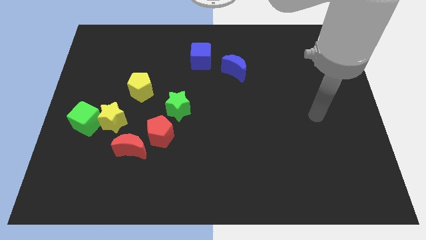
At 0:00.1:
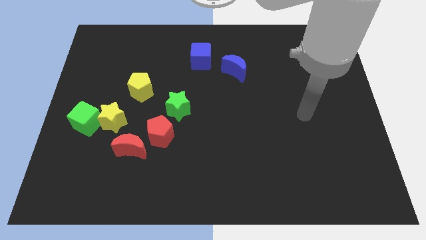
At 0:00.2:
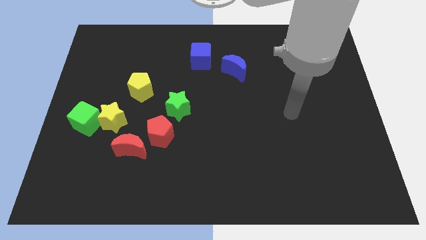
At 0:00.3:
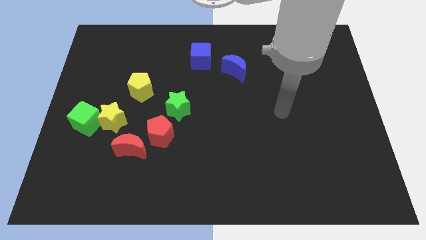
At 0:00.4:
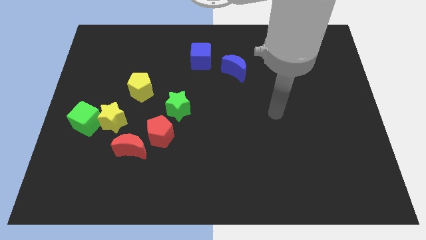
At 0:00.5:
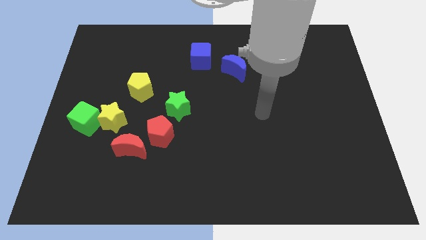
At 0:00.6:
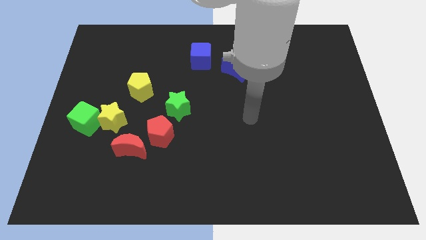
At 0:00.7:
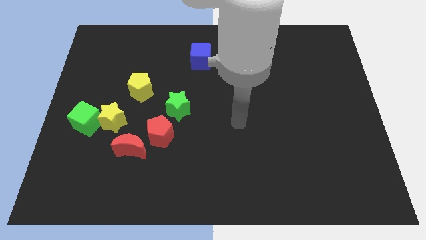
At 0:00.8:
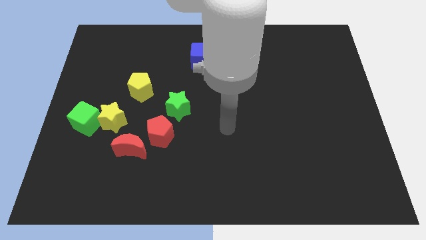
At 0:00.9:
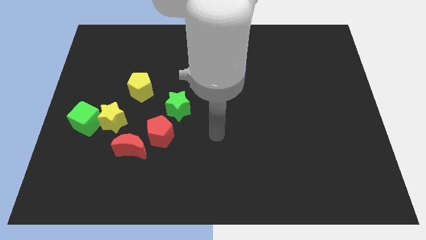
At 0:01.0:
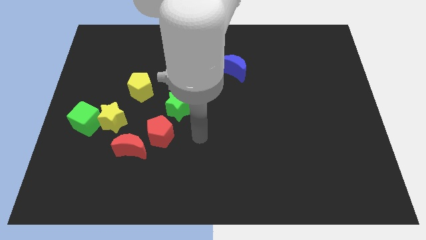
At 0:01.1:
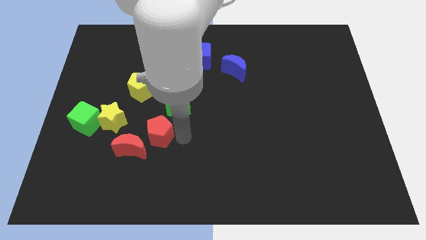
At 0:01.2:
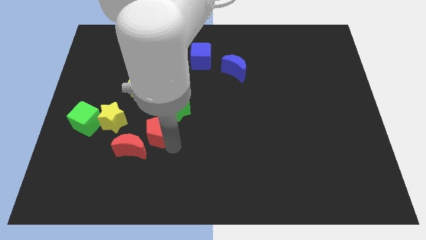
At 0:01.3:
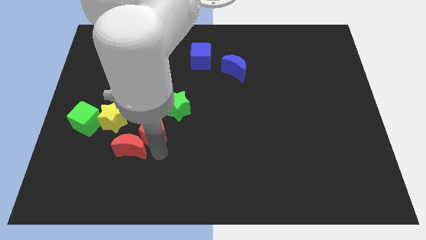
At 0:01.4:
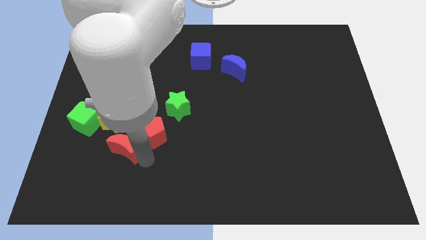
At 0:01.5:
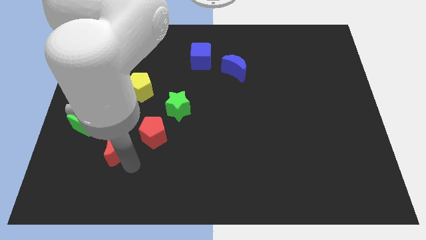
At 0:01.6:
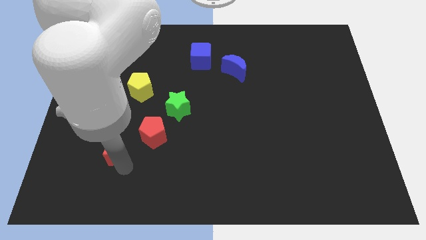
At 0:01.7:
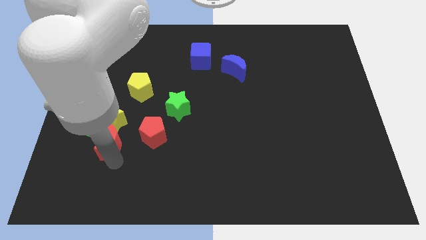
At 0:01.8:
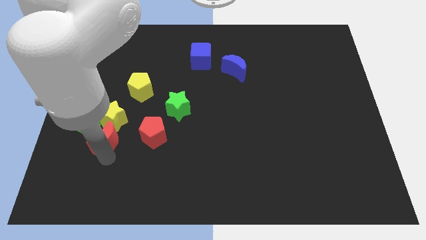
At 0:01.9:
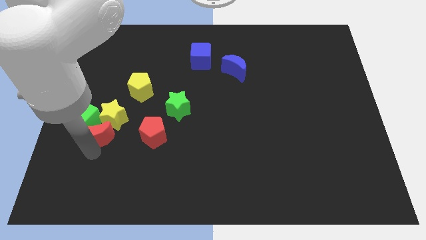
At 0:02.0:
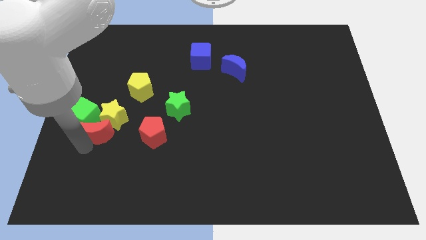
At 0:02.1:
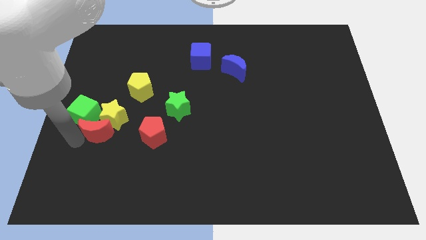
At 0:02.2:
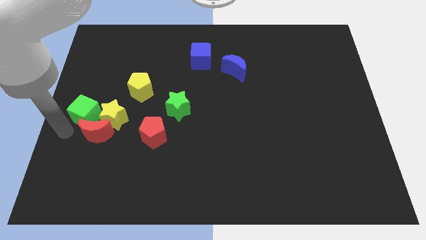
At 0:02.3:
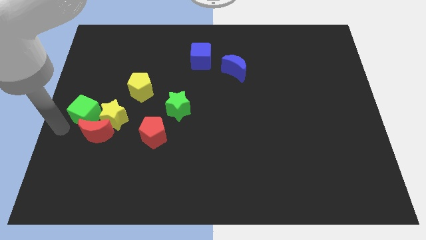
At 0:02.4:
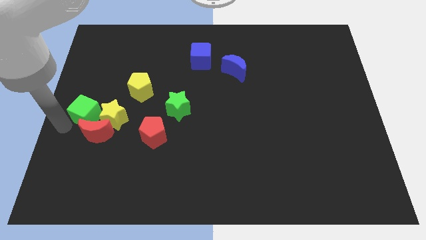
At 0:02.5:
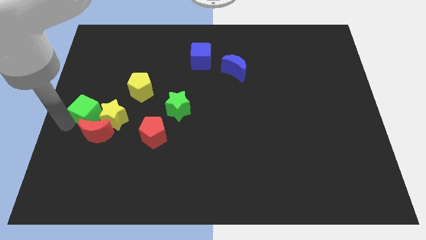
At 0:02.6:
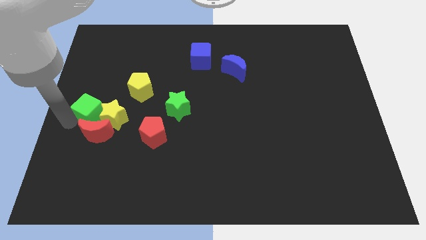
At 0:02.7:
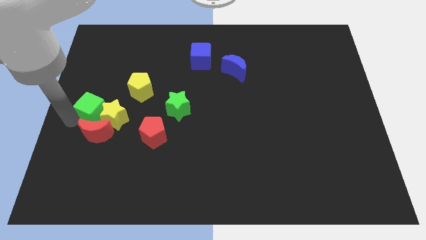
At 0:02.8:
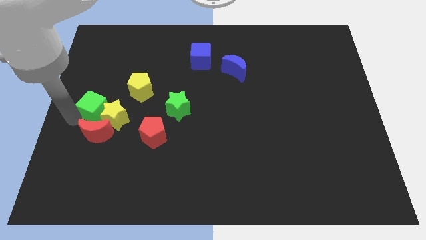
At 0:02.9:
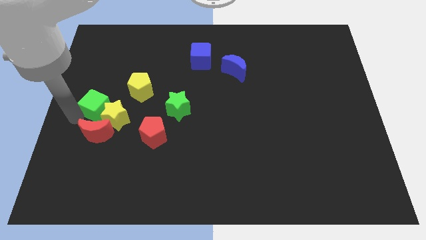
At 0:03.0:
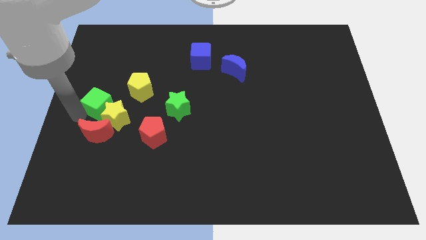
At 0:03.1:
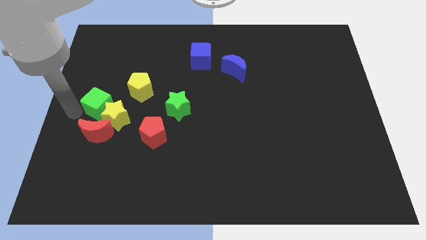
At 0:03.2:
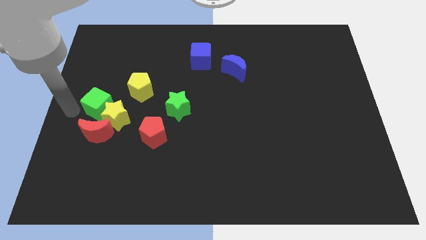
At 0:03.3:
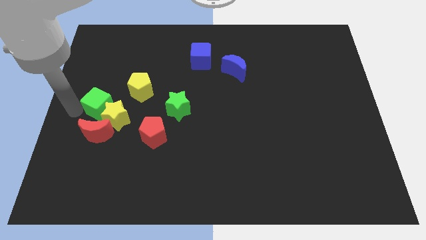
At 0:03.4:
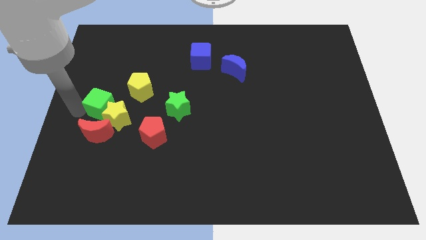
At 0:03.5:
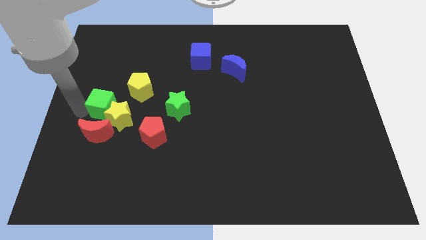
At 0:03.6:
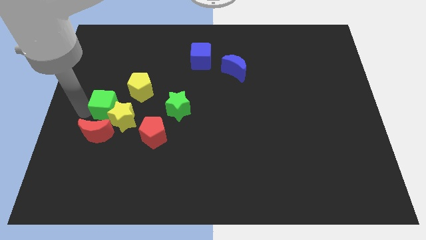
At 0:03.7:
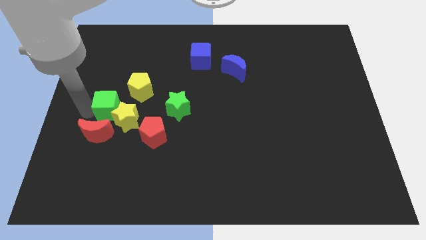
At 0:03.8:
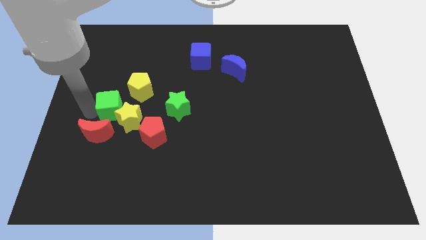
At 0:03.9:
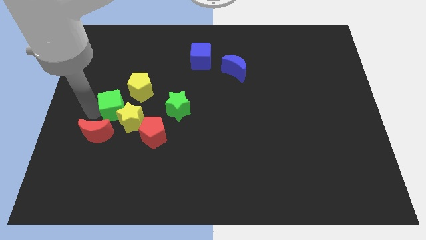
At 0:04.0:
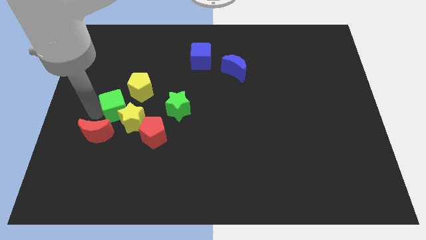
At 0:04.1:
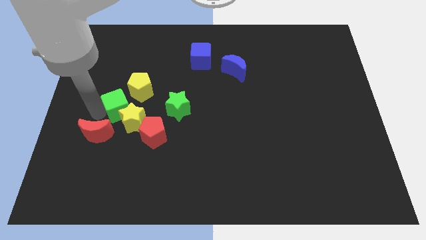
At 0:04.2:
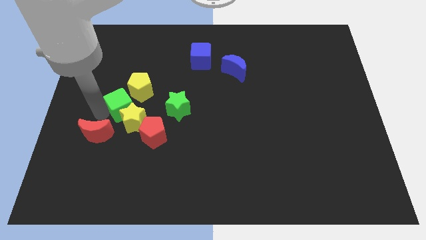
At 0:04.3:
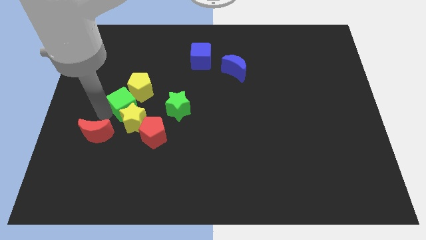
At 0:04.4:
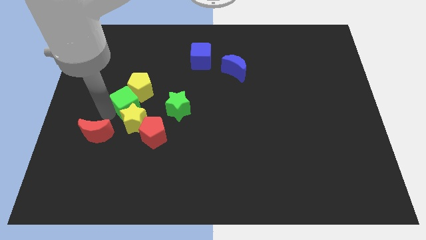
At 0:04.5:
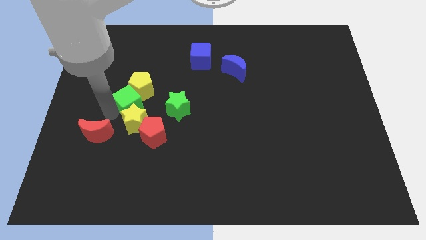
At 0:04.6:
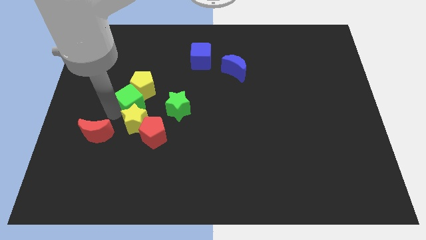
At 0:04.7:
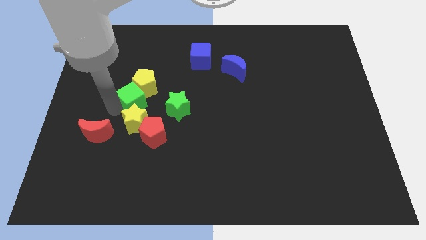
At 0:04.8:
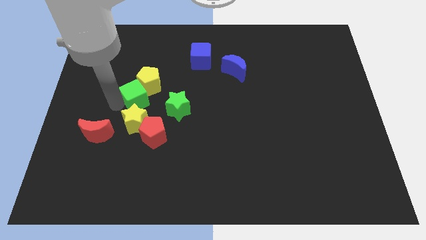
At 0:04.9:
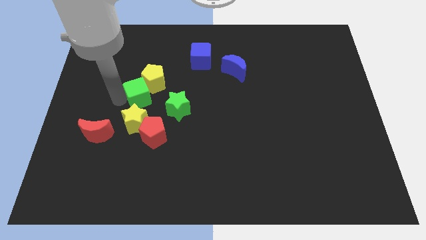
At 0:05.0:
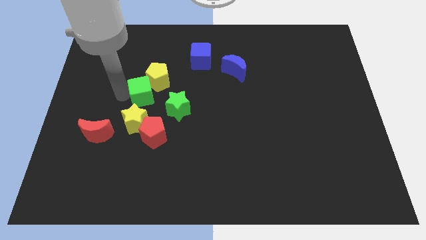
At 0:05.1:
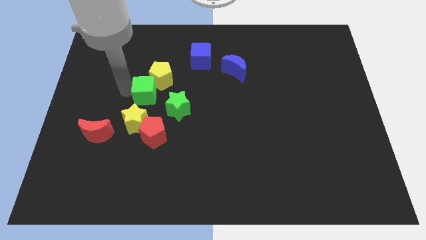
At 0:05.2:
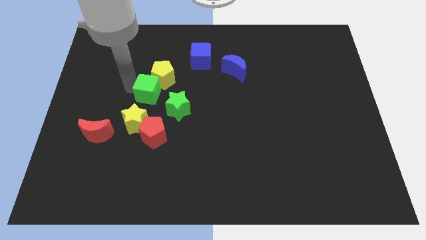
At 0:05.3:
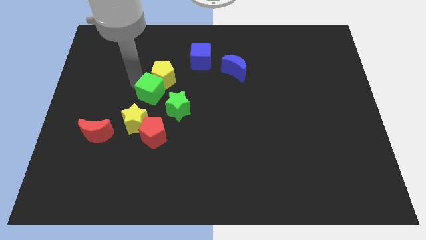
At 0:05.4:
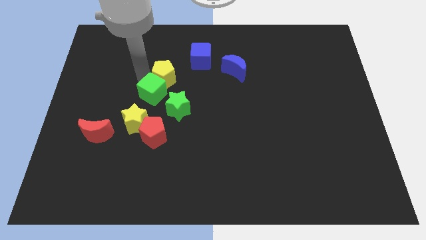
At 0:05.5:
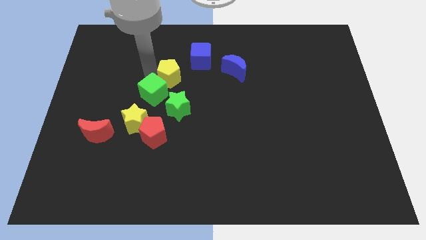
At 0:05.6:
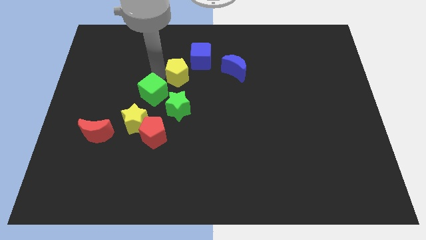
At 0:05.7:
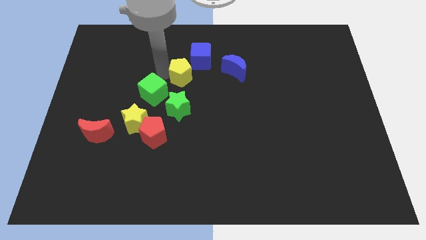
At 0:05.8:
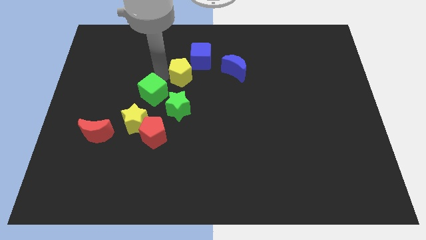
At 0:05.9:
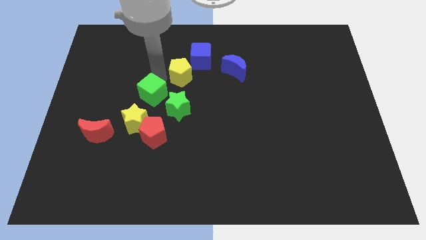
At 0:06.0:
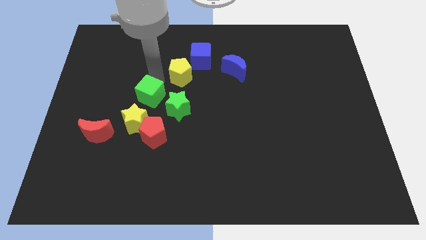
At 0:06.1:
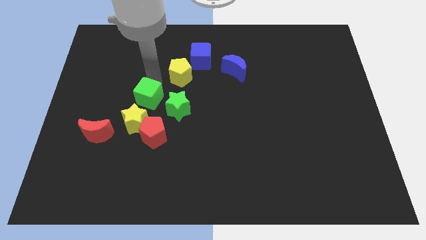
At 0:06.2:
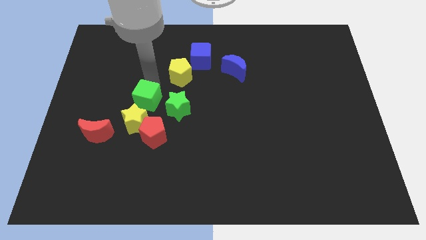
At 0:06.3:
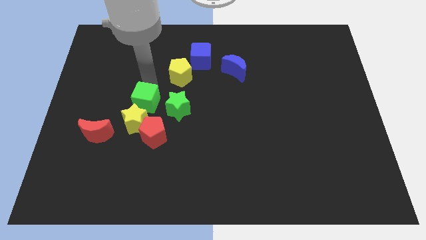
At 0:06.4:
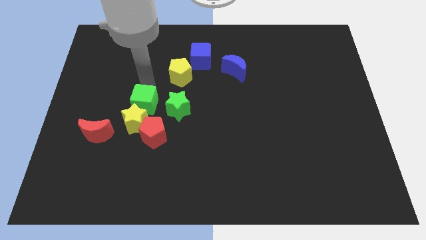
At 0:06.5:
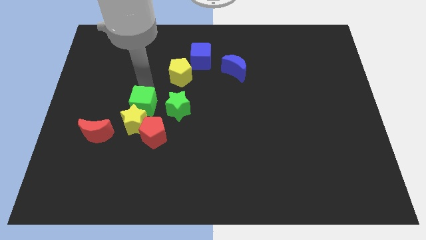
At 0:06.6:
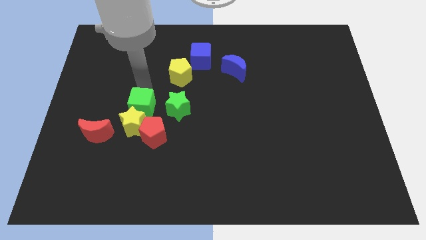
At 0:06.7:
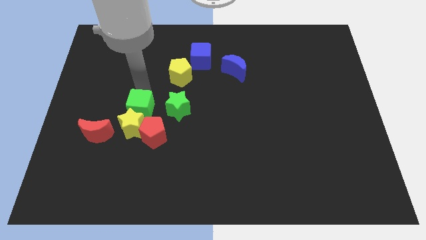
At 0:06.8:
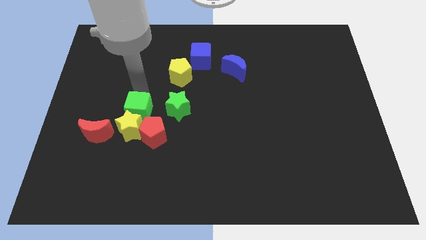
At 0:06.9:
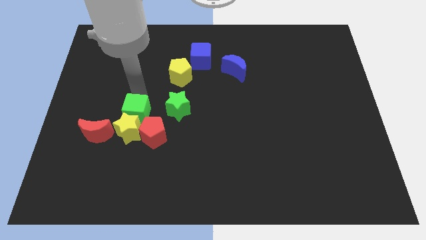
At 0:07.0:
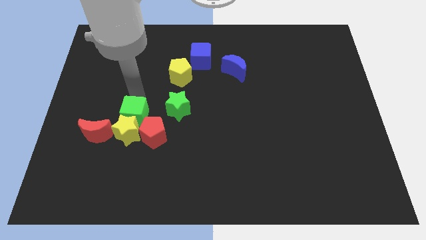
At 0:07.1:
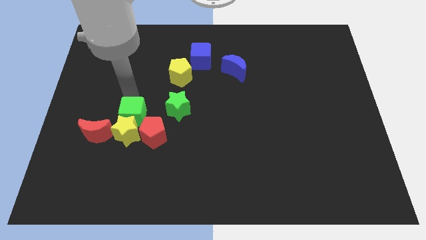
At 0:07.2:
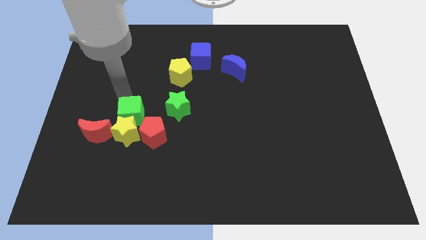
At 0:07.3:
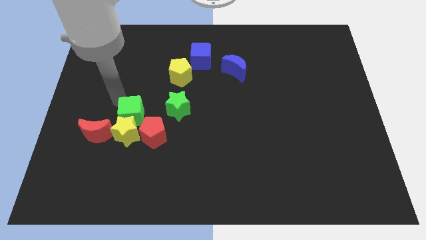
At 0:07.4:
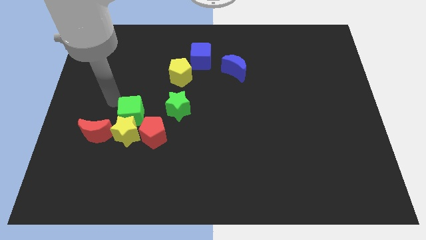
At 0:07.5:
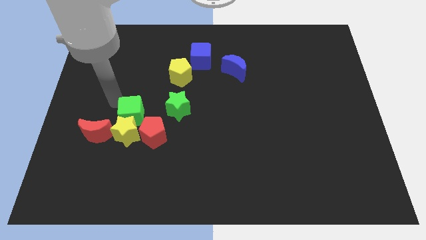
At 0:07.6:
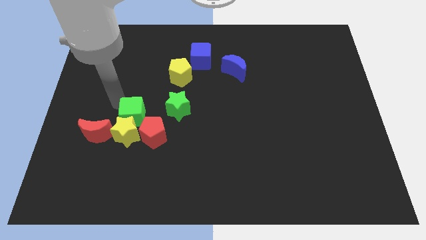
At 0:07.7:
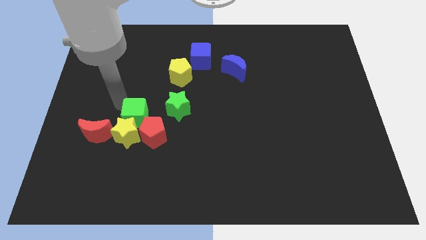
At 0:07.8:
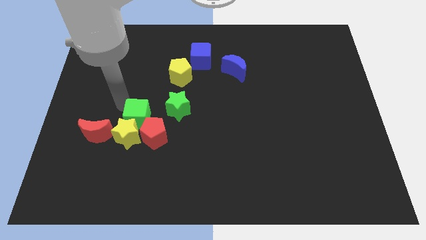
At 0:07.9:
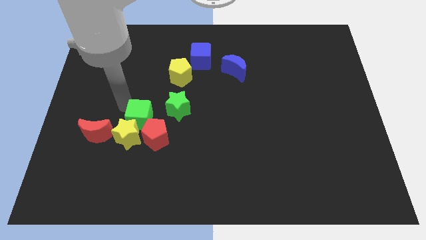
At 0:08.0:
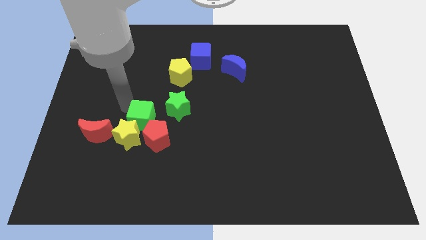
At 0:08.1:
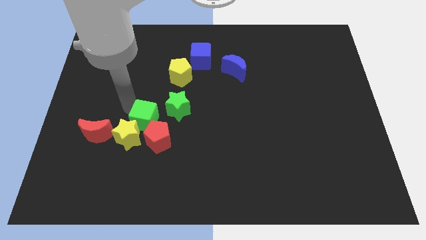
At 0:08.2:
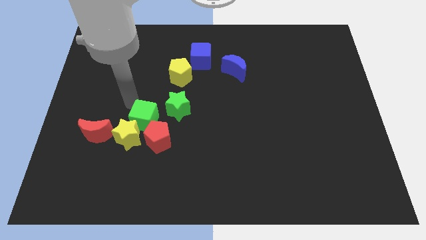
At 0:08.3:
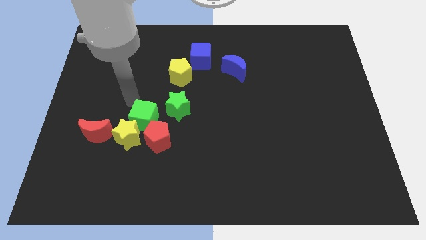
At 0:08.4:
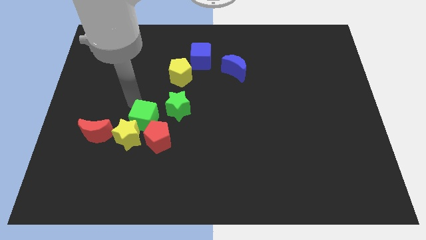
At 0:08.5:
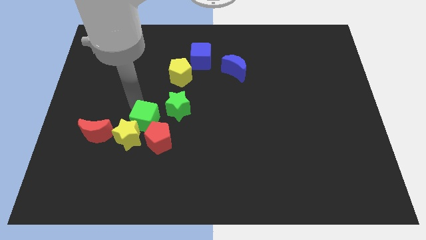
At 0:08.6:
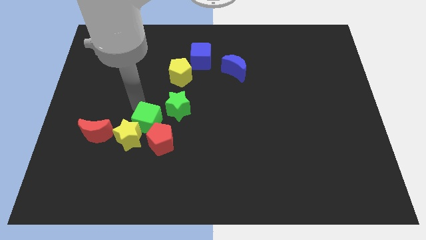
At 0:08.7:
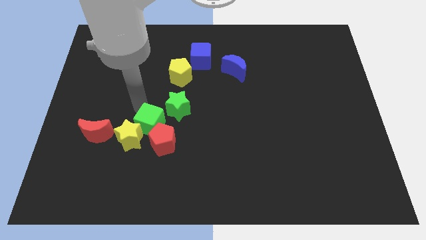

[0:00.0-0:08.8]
push the green cube towards the red pentagon
